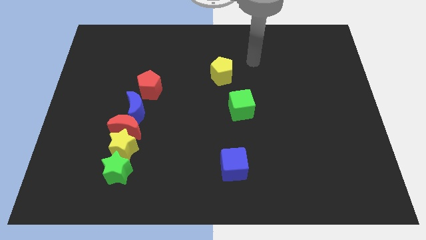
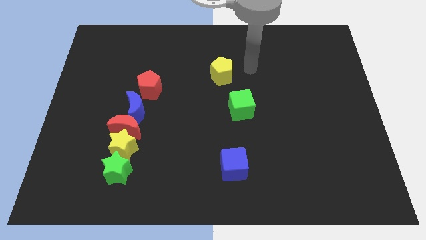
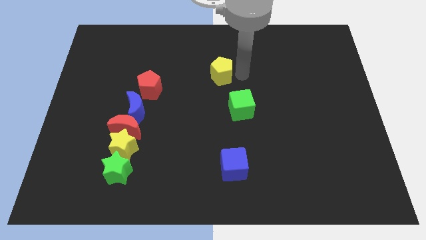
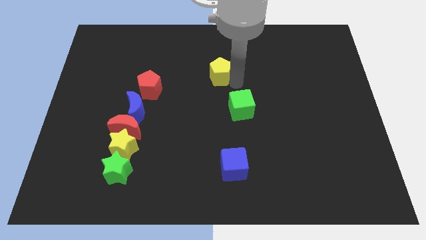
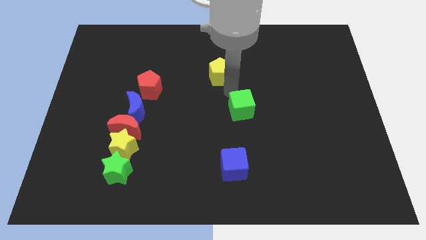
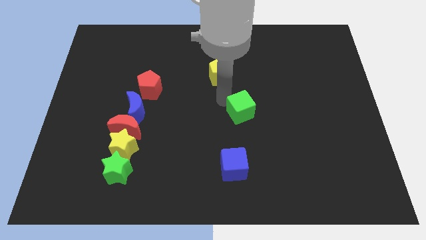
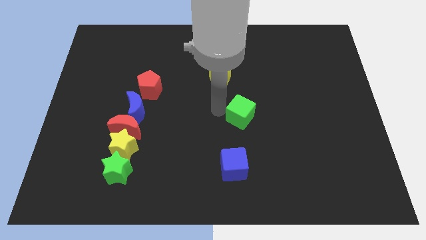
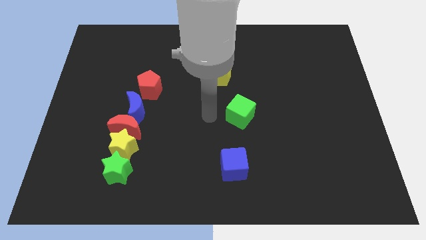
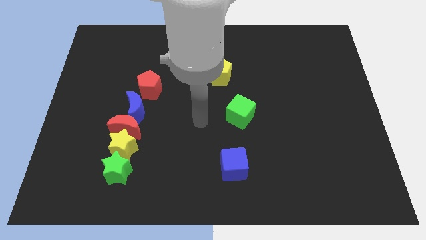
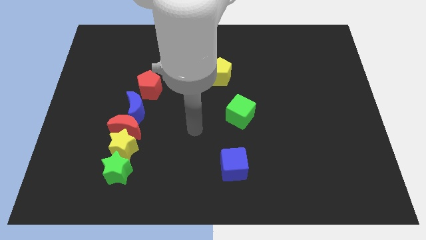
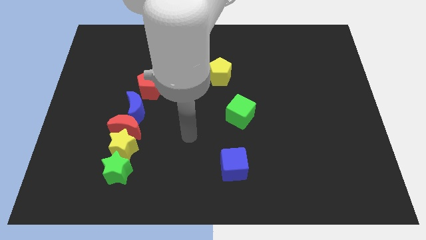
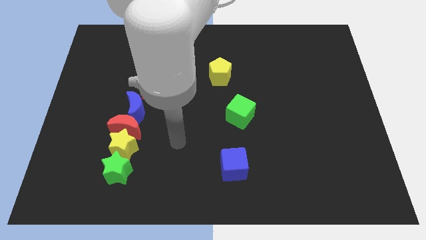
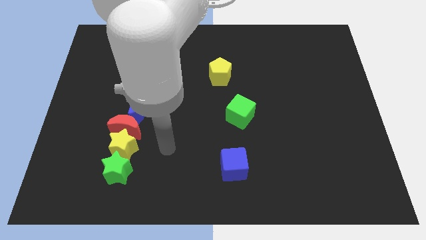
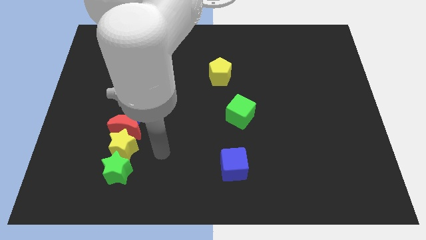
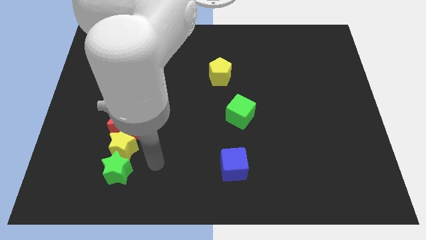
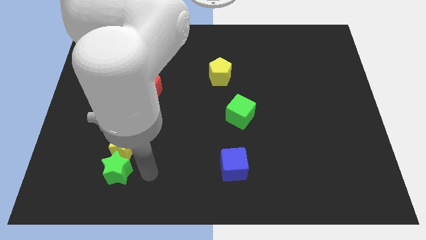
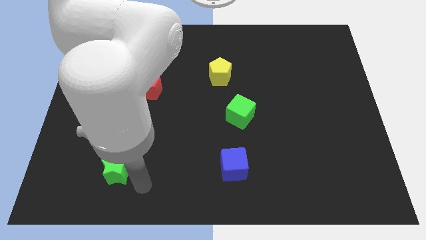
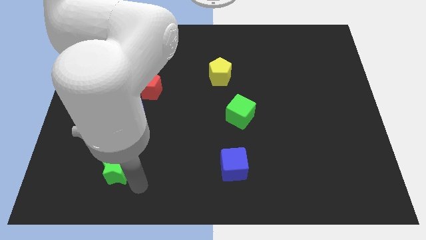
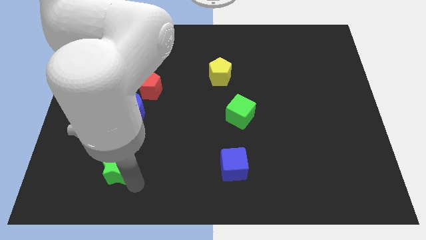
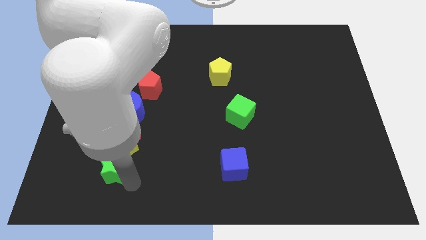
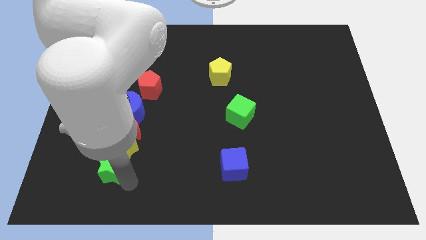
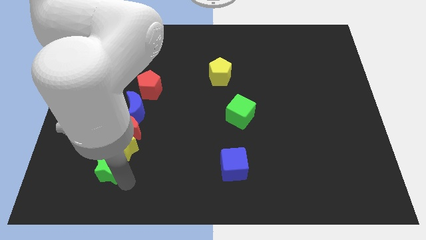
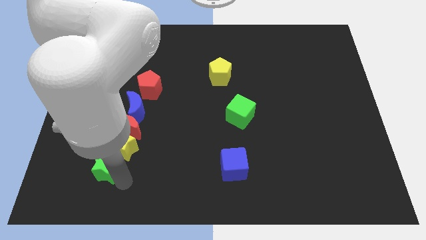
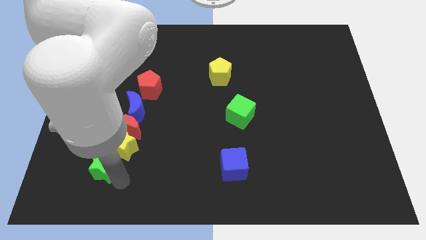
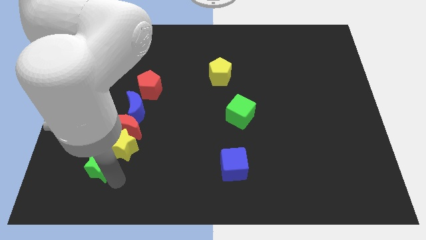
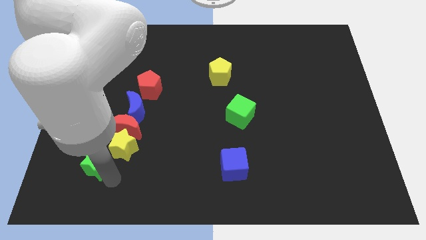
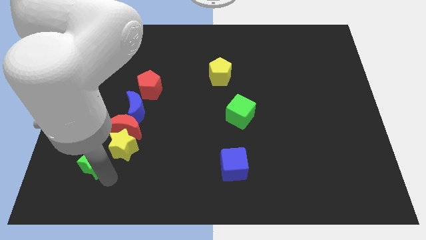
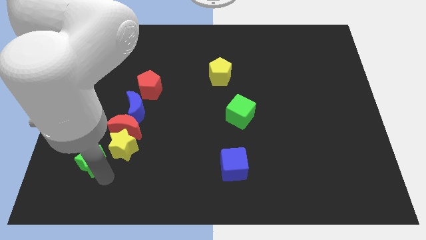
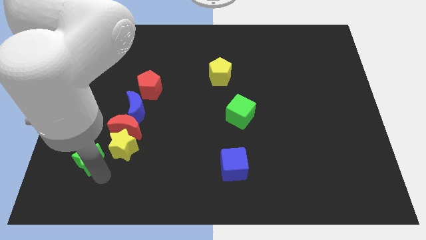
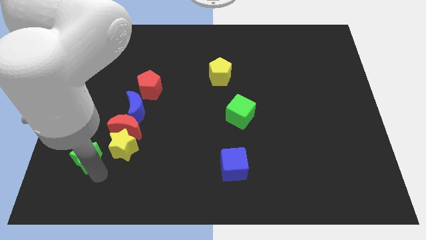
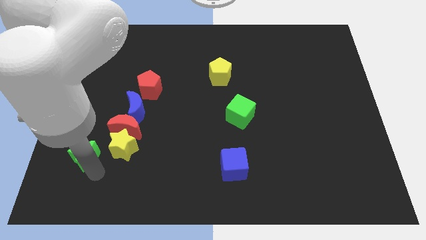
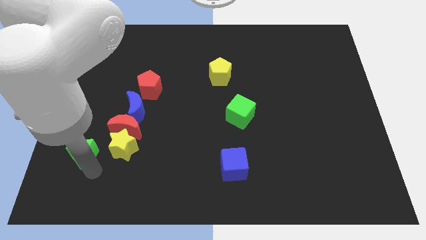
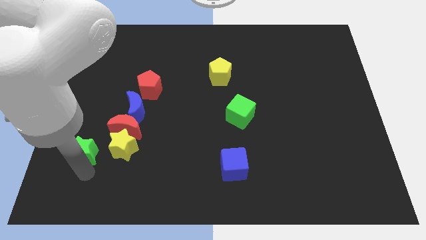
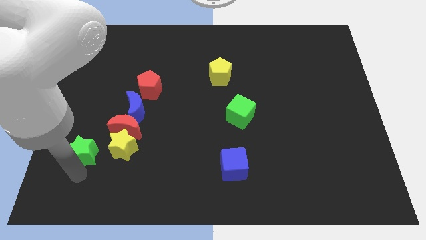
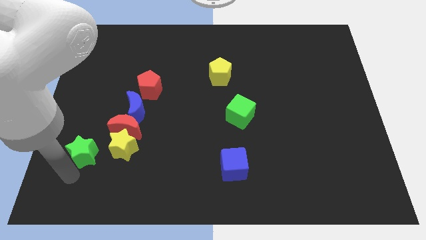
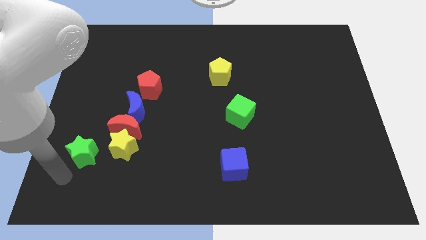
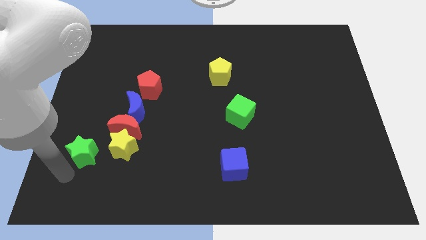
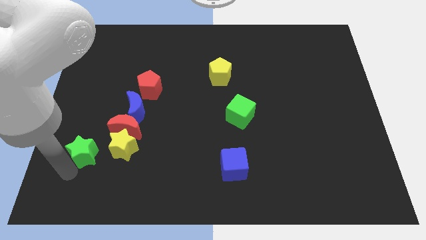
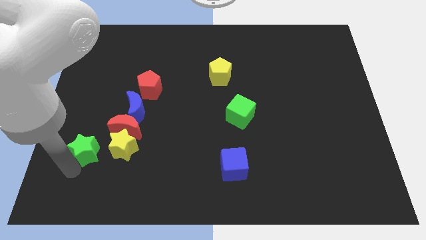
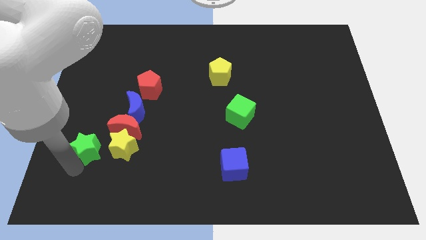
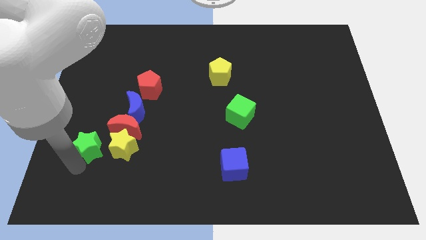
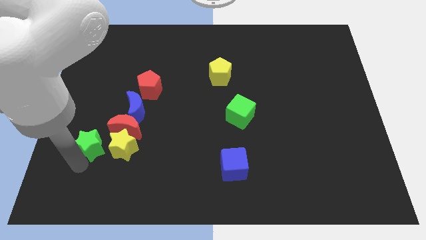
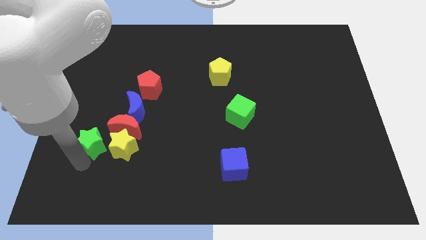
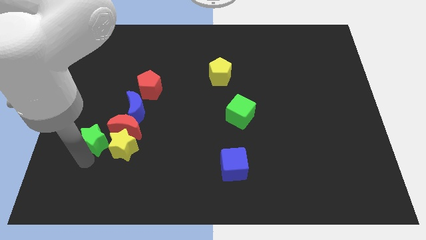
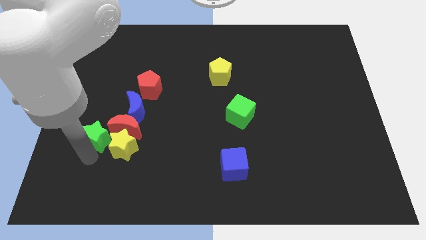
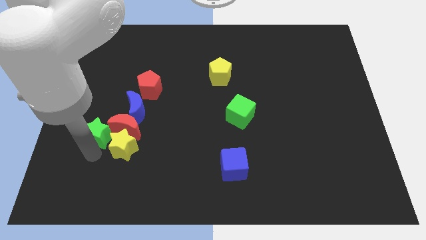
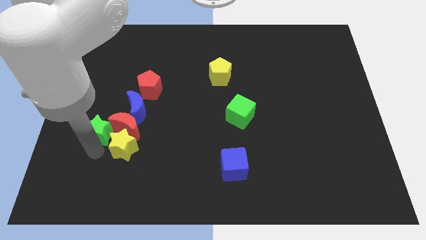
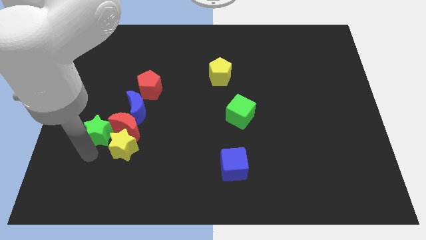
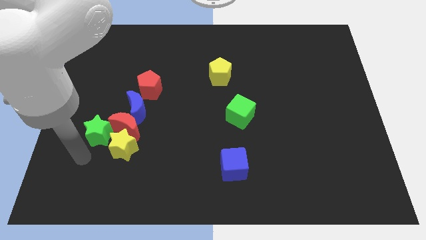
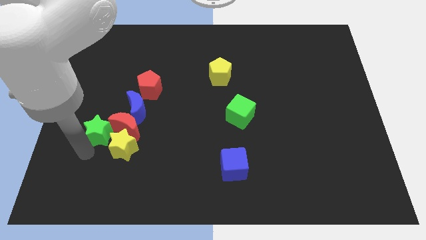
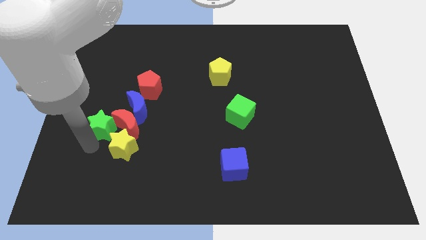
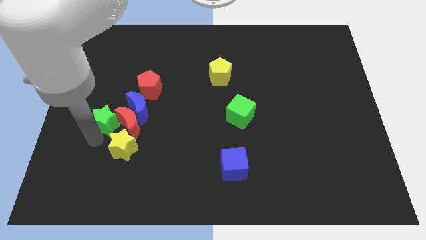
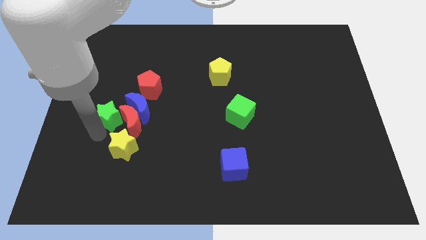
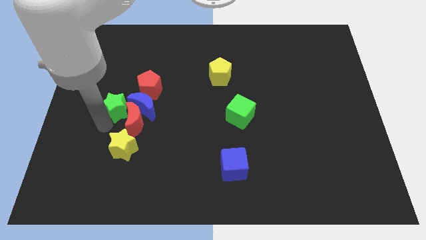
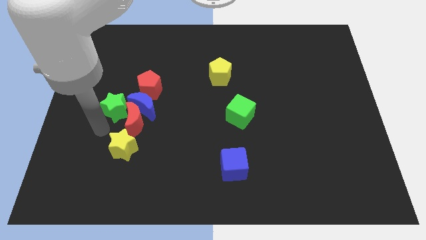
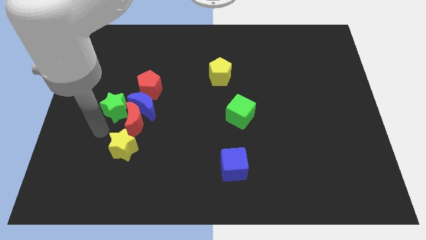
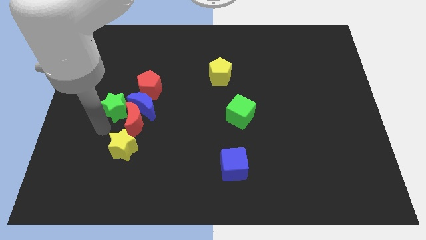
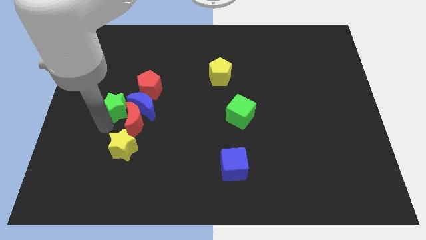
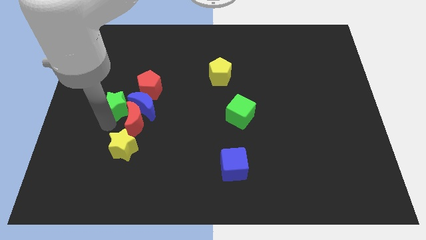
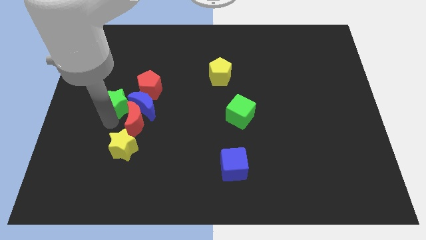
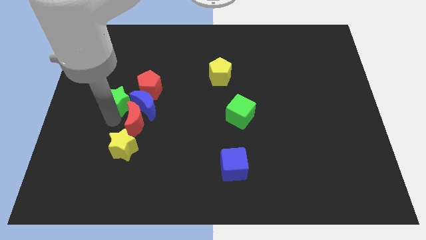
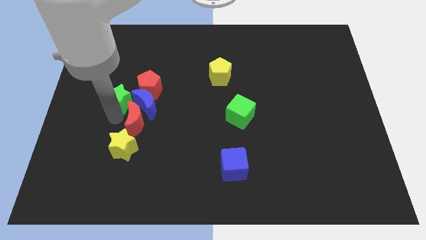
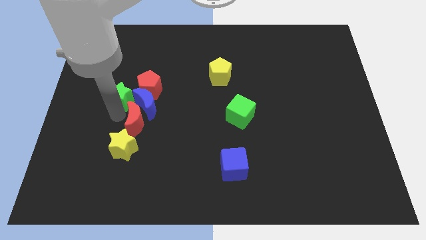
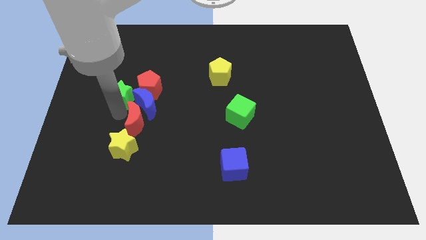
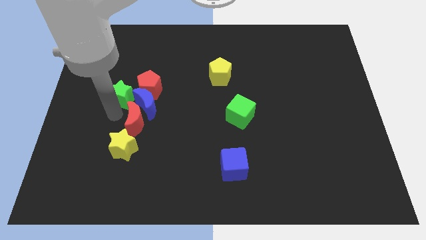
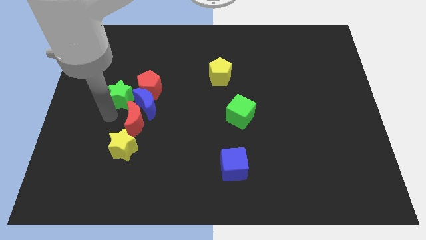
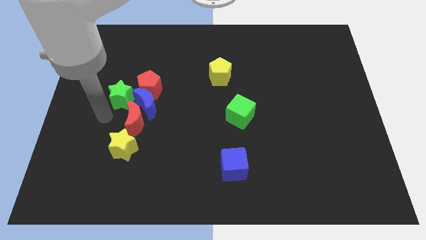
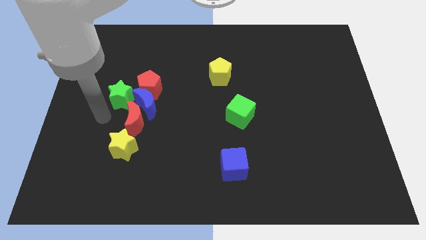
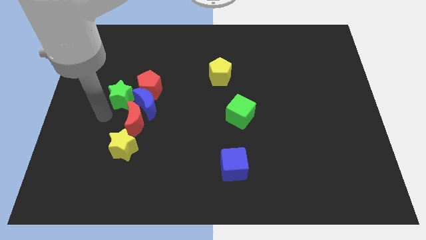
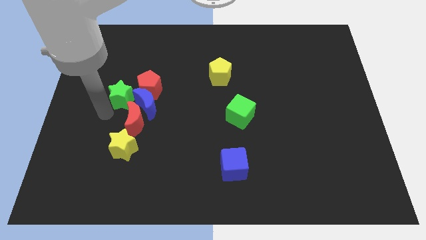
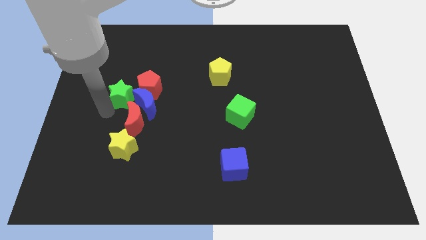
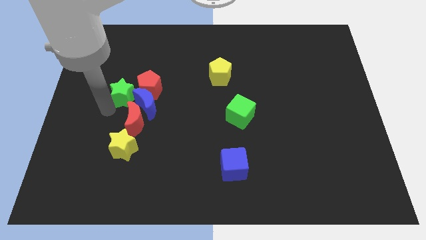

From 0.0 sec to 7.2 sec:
move the green star upwards

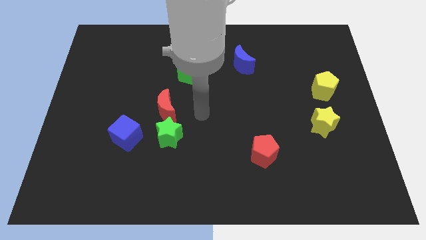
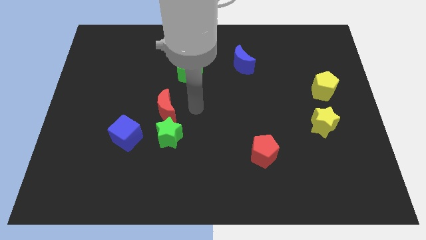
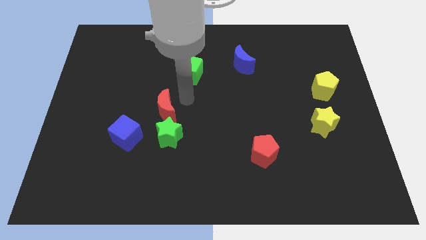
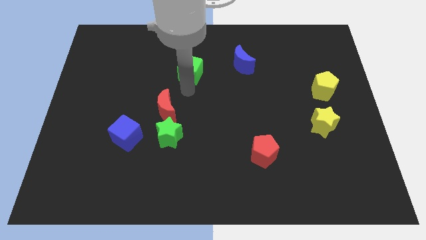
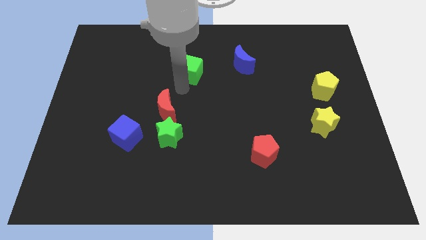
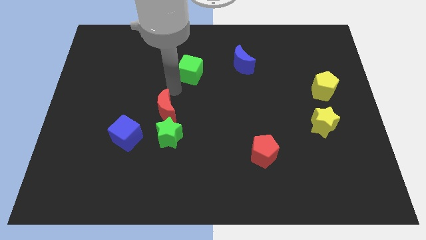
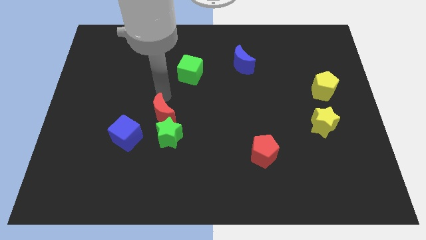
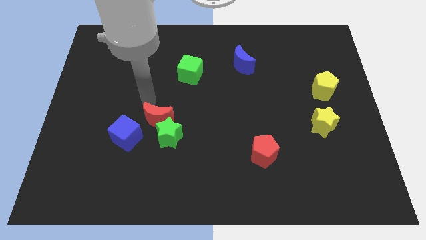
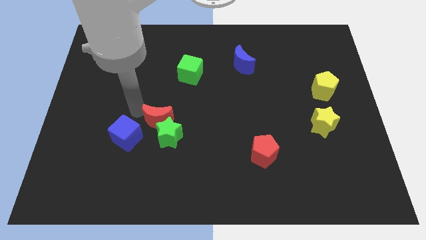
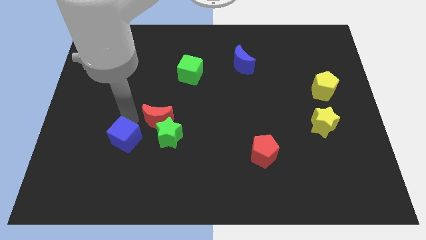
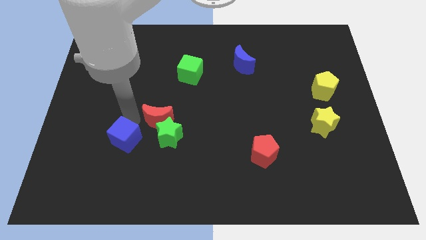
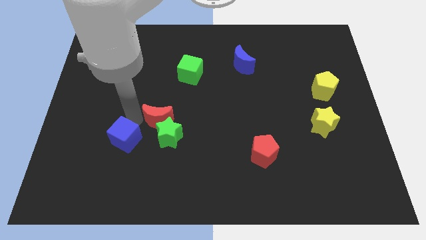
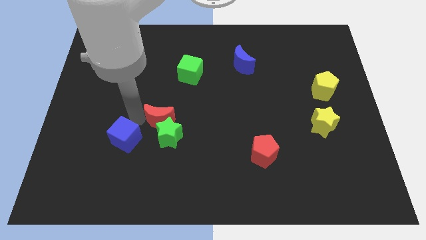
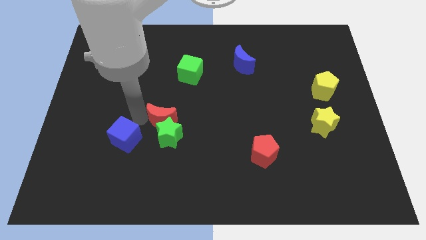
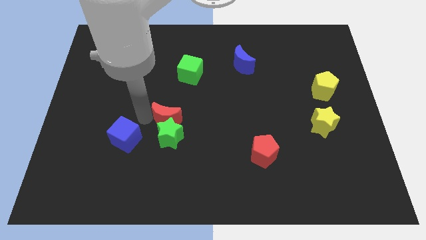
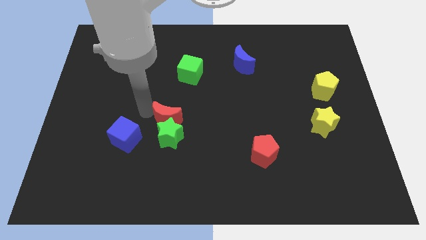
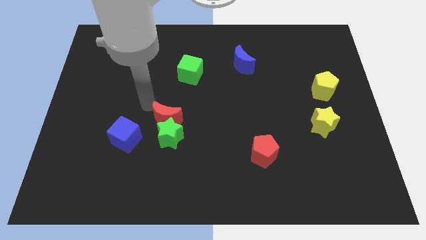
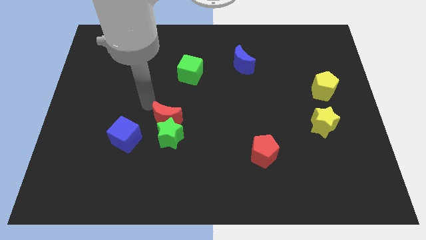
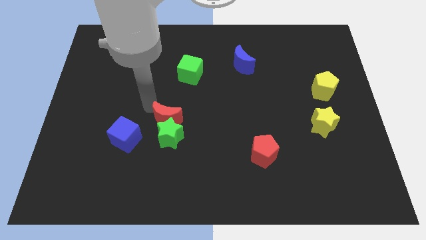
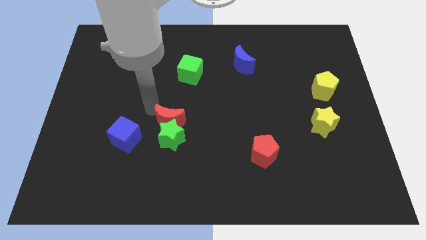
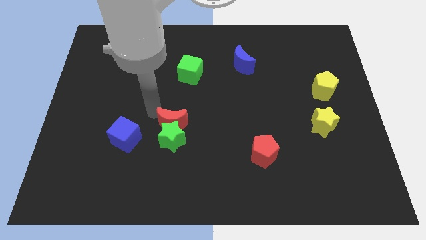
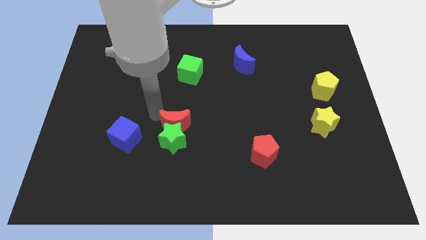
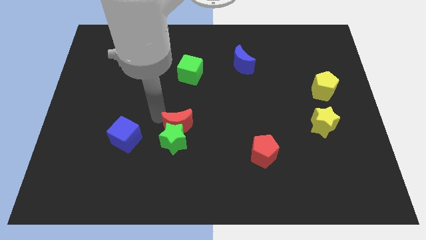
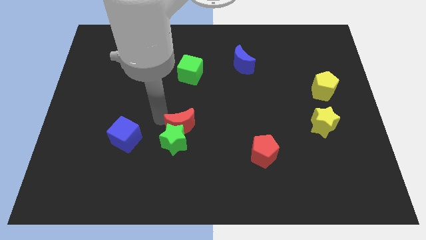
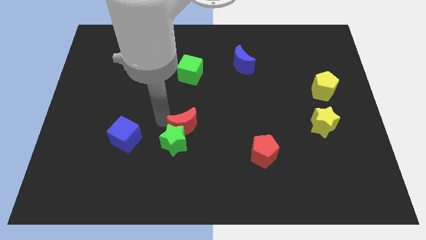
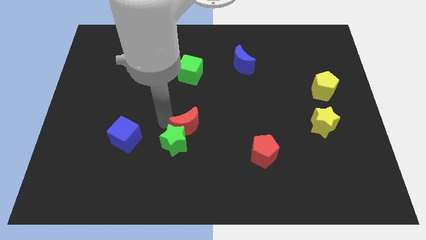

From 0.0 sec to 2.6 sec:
slightly move the red moon downwards and right diagonally
